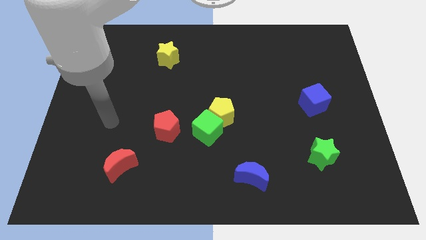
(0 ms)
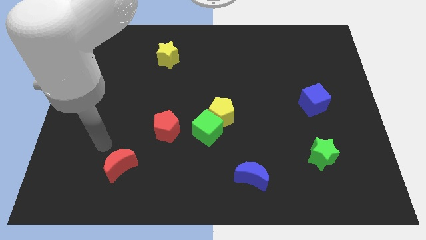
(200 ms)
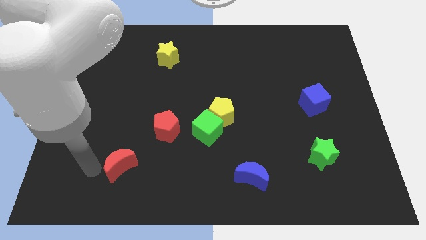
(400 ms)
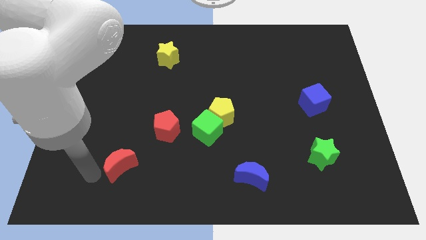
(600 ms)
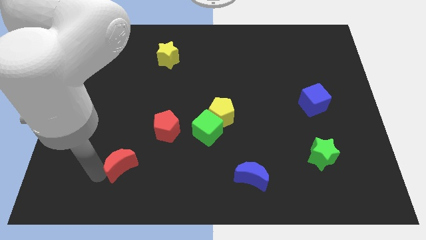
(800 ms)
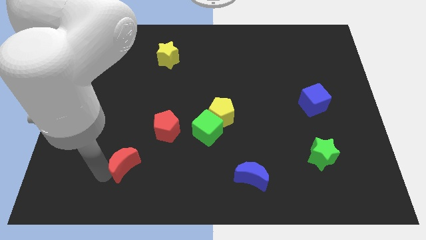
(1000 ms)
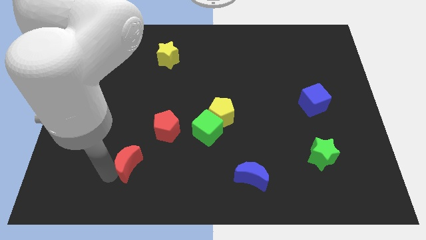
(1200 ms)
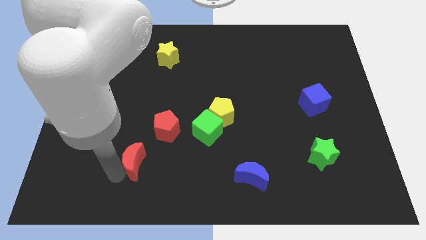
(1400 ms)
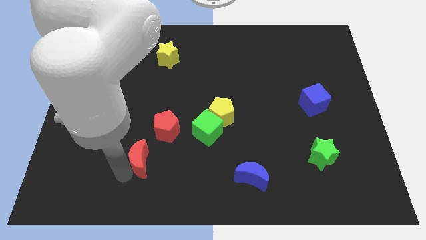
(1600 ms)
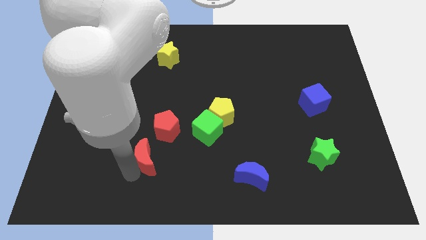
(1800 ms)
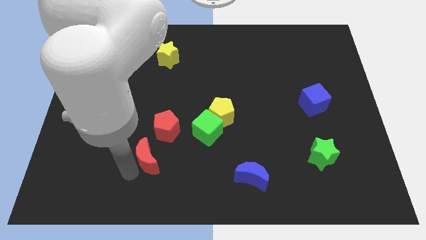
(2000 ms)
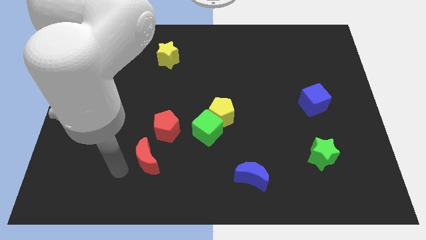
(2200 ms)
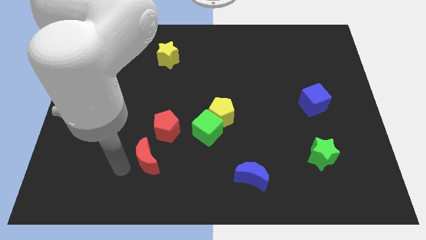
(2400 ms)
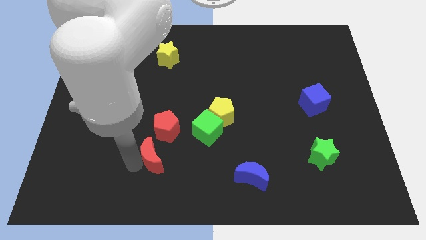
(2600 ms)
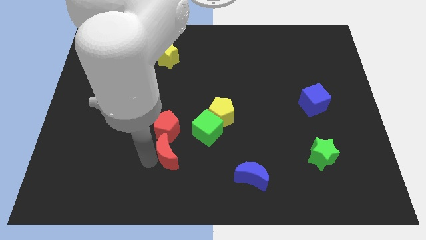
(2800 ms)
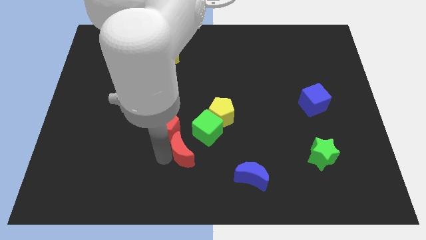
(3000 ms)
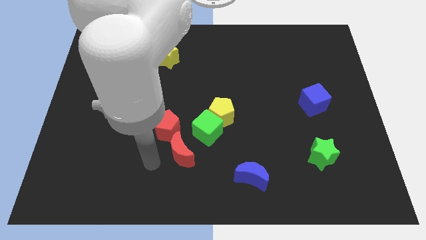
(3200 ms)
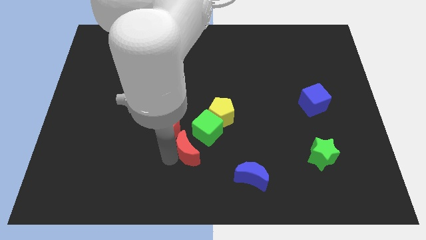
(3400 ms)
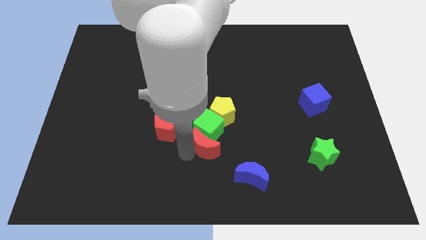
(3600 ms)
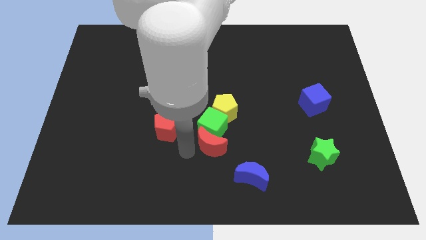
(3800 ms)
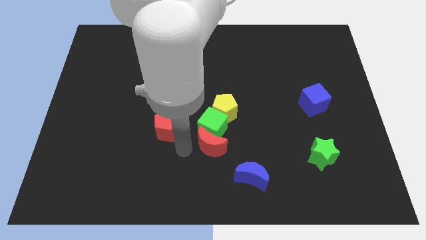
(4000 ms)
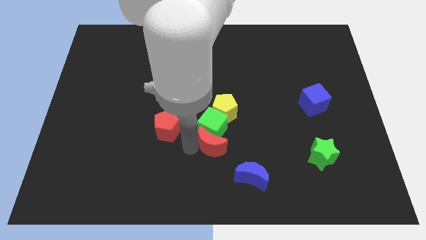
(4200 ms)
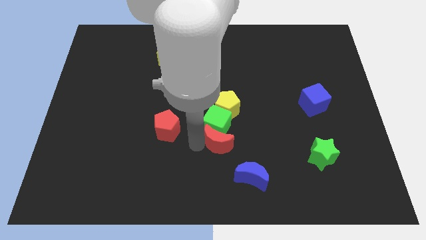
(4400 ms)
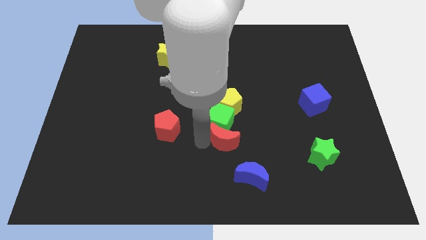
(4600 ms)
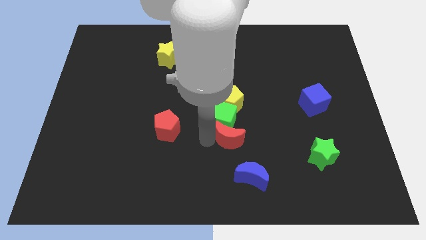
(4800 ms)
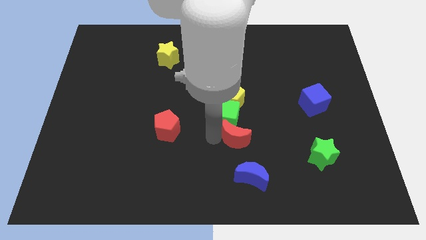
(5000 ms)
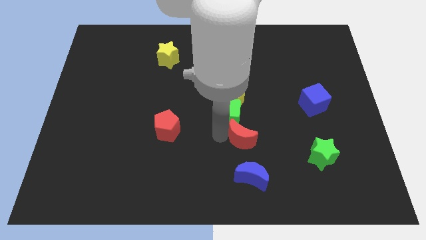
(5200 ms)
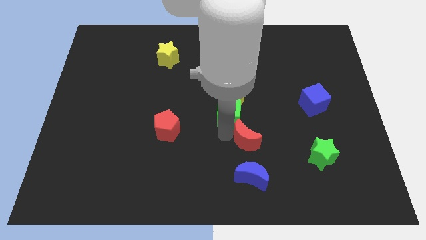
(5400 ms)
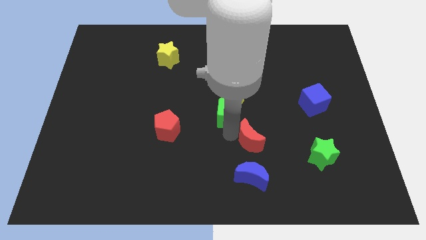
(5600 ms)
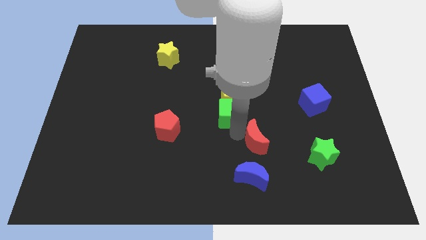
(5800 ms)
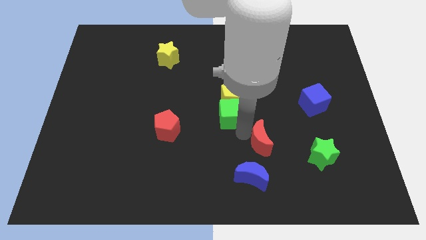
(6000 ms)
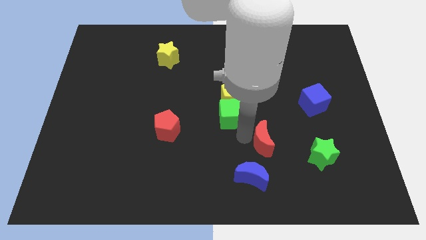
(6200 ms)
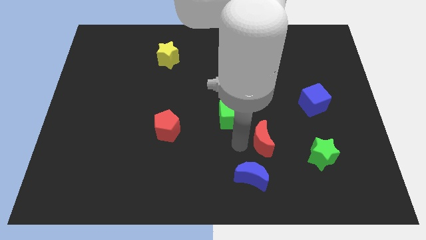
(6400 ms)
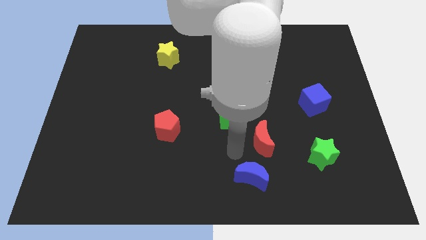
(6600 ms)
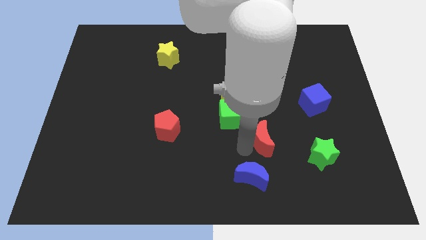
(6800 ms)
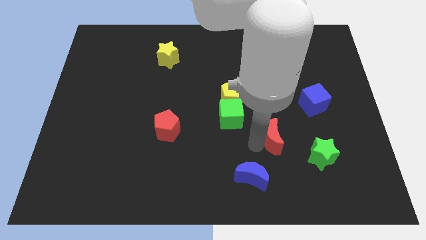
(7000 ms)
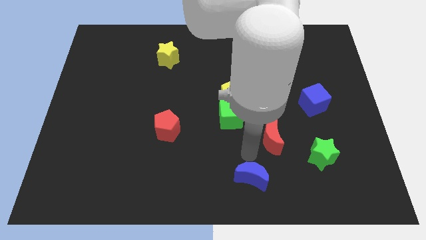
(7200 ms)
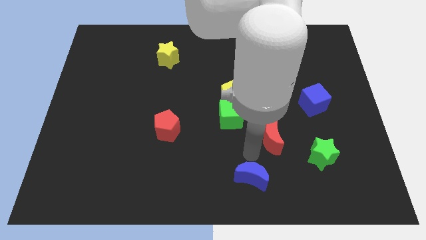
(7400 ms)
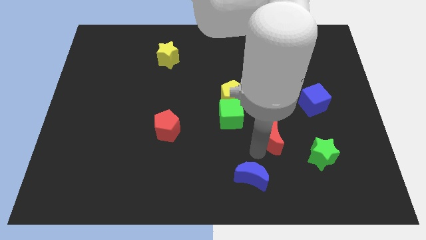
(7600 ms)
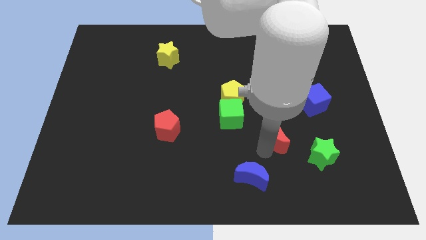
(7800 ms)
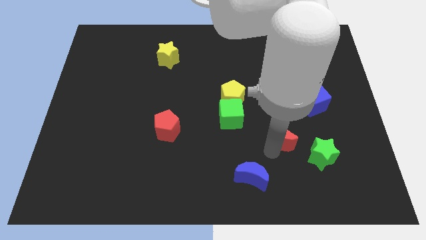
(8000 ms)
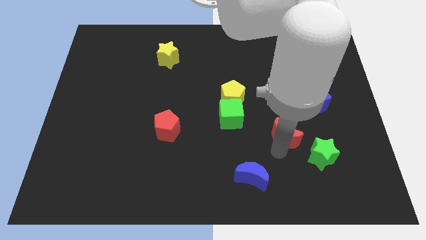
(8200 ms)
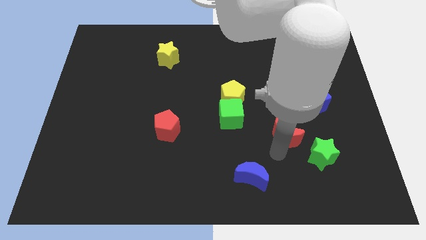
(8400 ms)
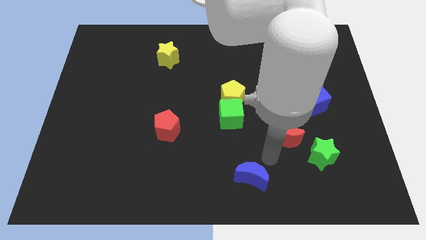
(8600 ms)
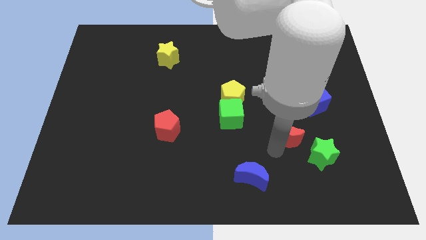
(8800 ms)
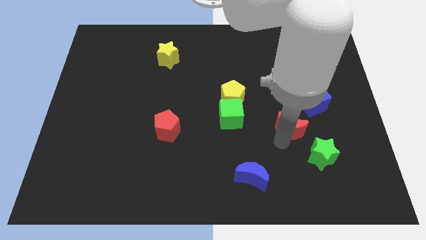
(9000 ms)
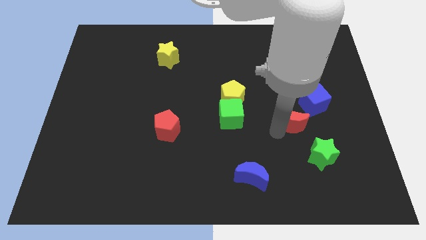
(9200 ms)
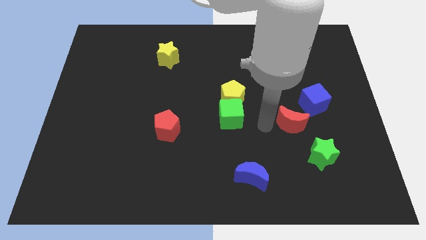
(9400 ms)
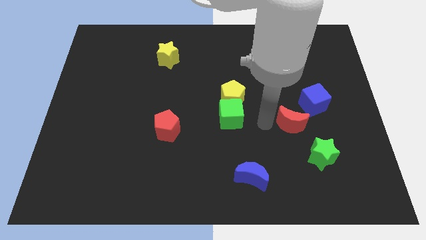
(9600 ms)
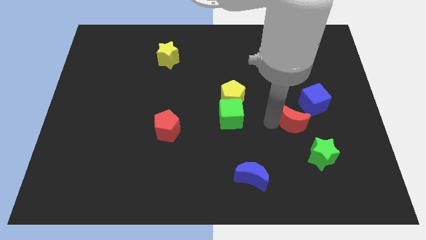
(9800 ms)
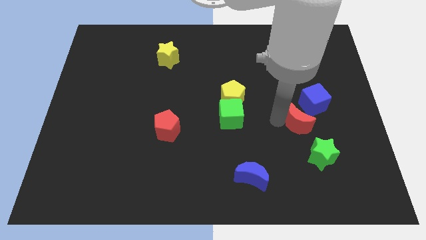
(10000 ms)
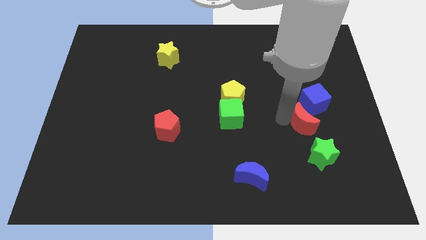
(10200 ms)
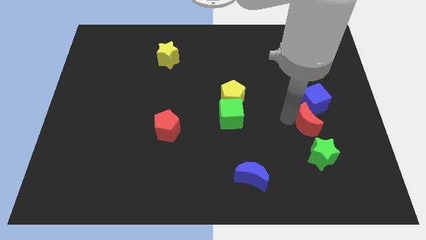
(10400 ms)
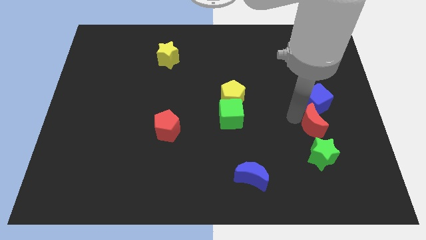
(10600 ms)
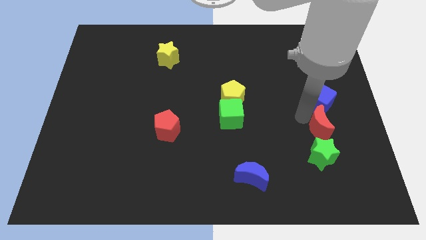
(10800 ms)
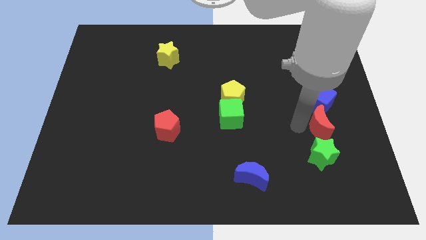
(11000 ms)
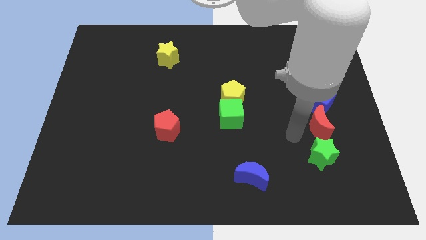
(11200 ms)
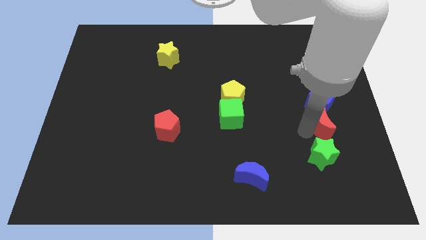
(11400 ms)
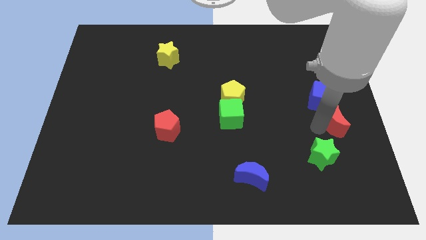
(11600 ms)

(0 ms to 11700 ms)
slide the red moon to the right side
